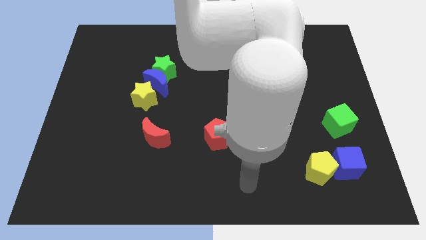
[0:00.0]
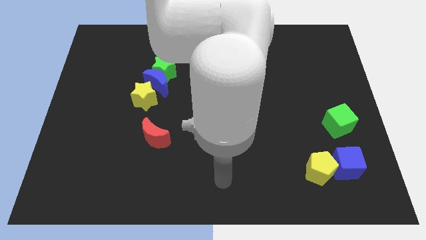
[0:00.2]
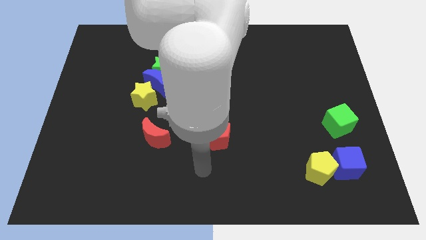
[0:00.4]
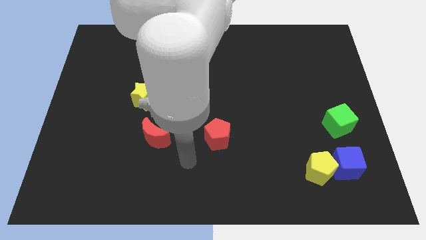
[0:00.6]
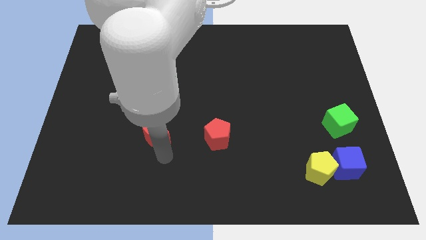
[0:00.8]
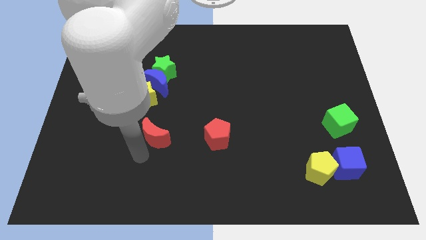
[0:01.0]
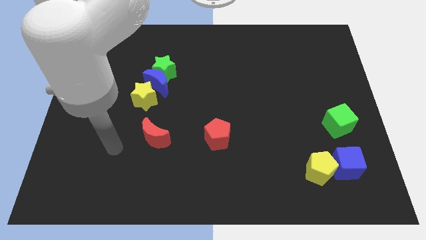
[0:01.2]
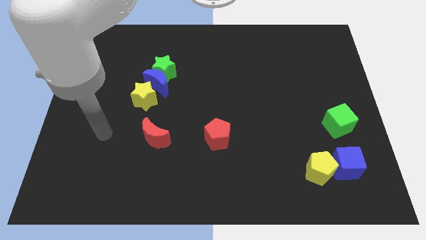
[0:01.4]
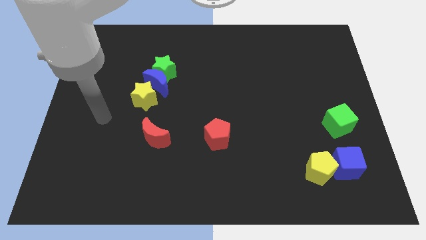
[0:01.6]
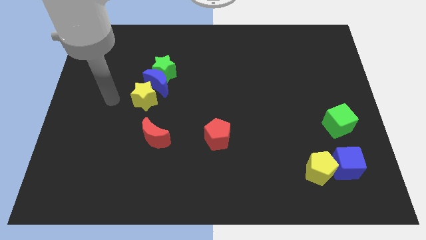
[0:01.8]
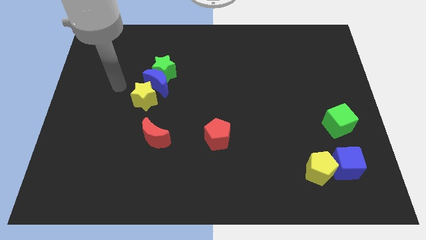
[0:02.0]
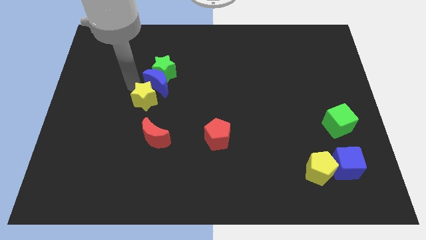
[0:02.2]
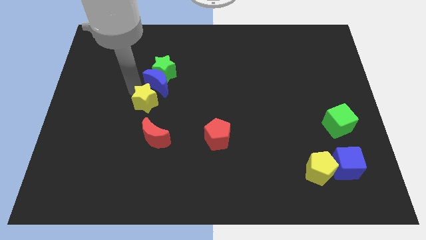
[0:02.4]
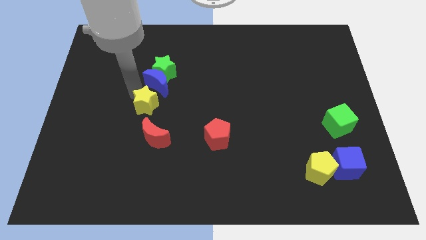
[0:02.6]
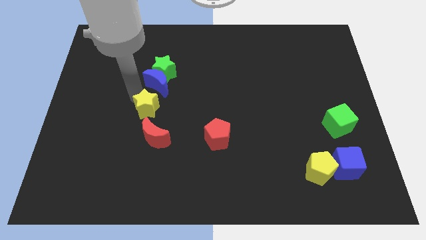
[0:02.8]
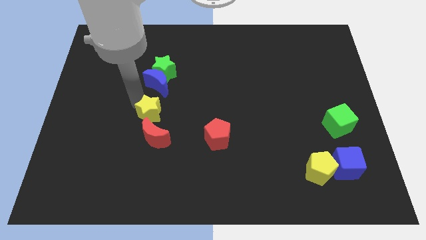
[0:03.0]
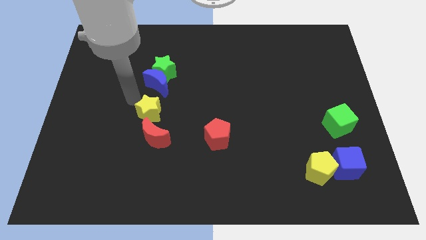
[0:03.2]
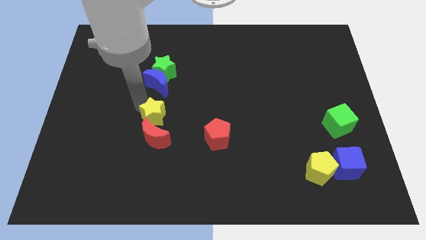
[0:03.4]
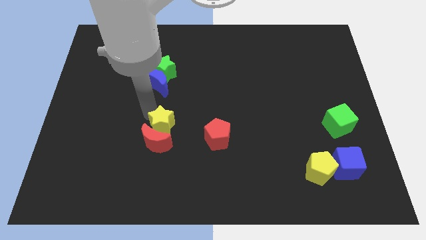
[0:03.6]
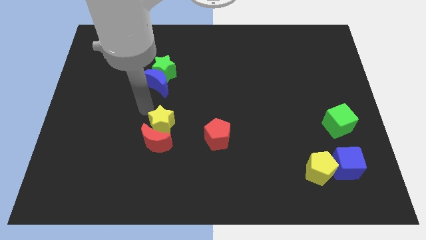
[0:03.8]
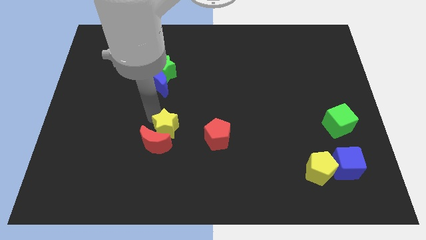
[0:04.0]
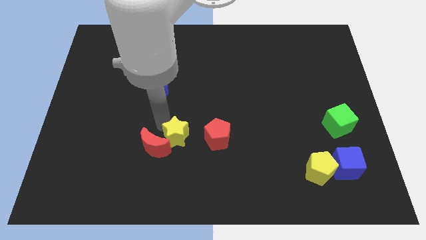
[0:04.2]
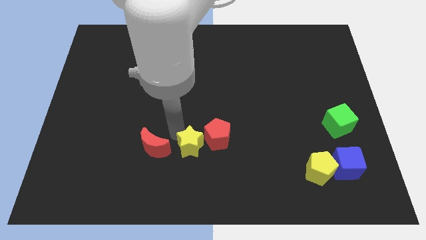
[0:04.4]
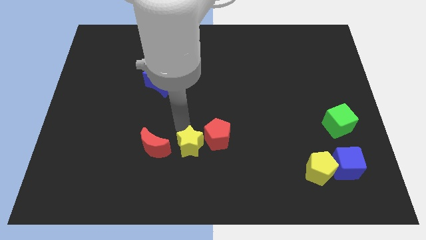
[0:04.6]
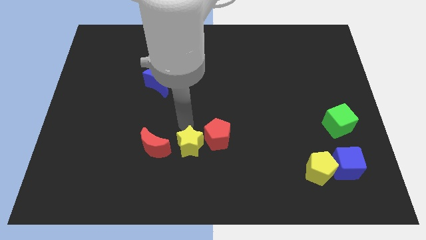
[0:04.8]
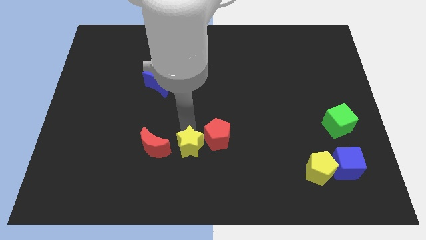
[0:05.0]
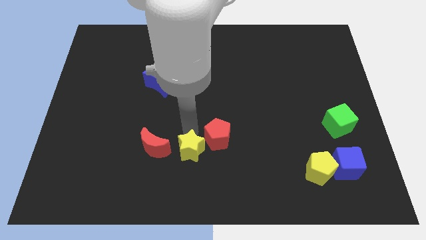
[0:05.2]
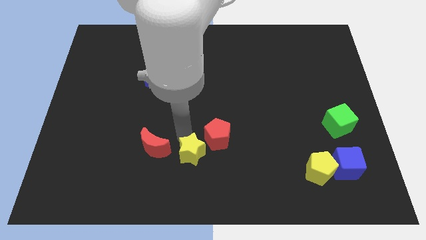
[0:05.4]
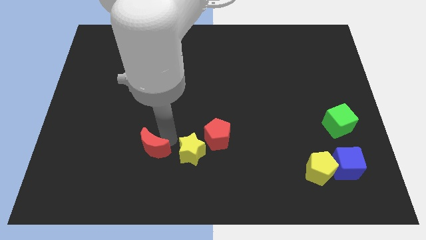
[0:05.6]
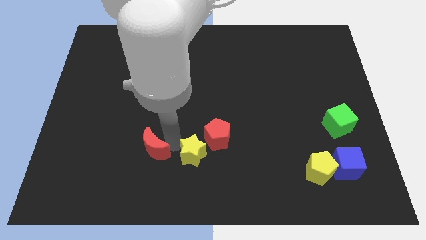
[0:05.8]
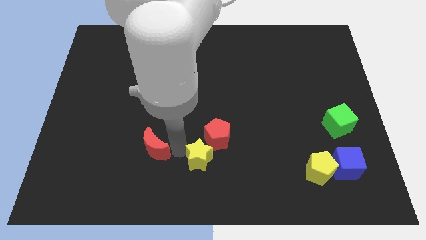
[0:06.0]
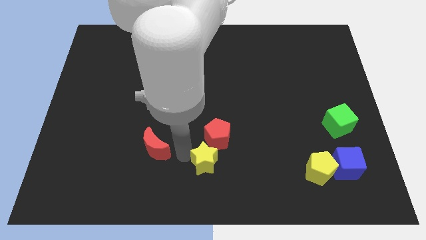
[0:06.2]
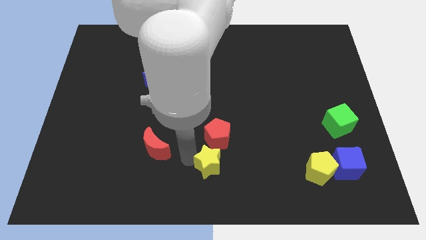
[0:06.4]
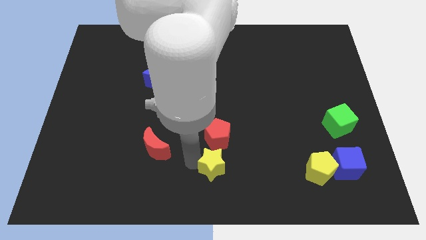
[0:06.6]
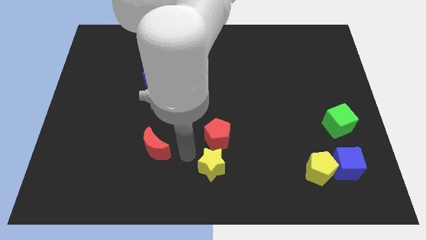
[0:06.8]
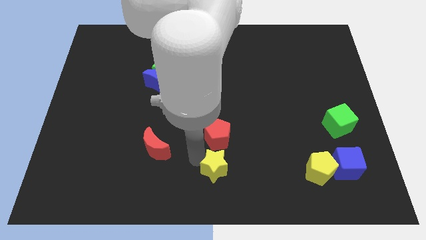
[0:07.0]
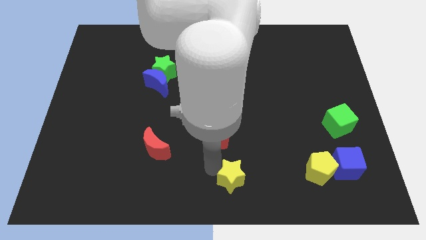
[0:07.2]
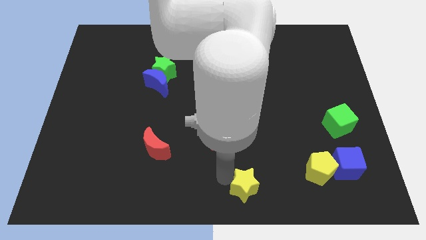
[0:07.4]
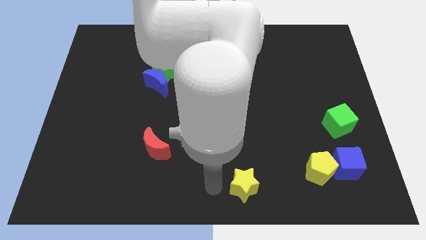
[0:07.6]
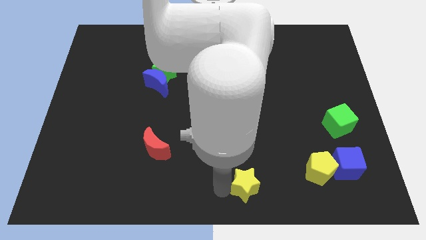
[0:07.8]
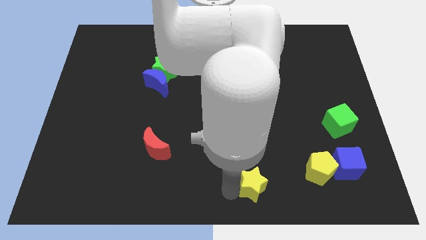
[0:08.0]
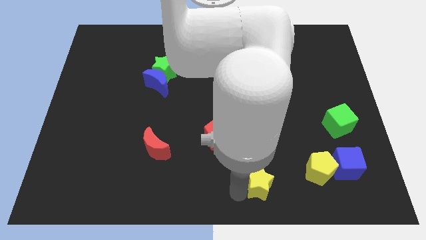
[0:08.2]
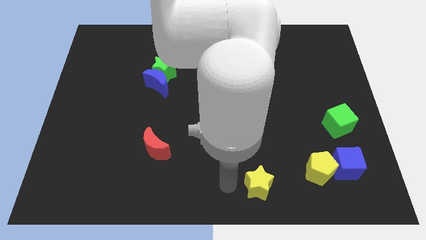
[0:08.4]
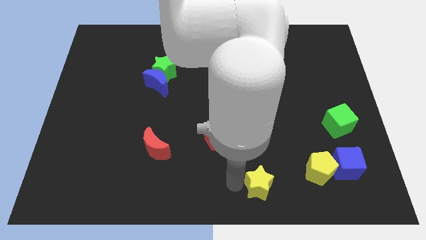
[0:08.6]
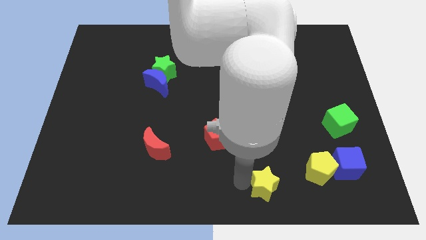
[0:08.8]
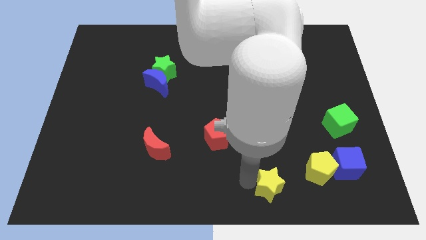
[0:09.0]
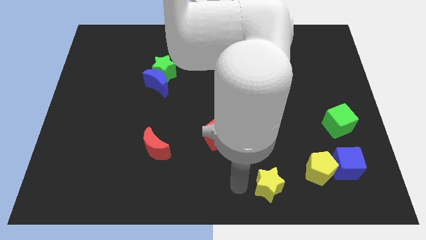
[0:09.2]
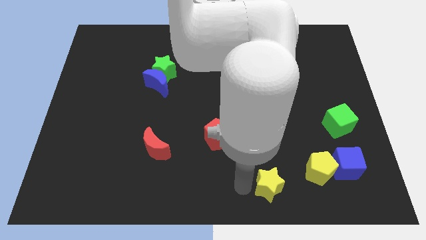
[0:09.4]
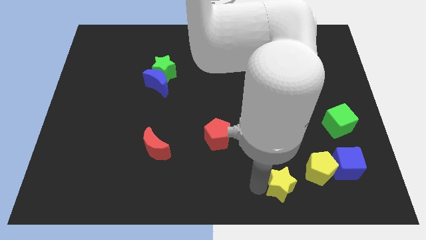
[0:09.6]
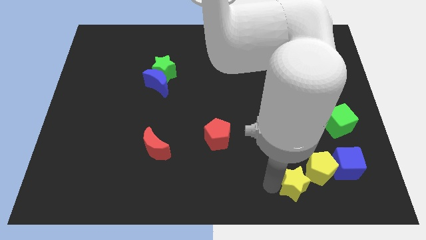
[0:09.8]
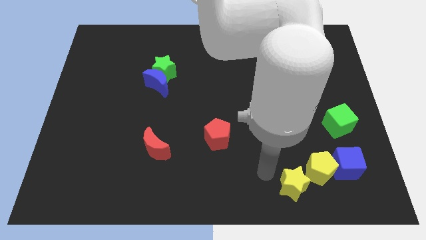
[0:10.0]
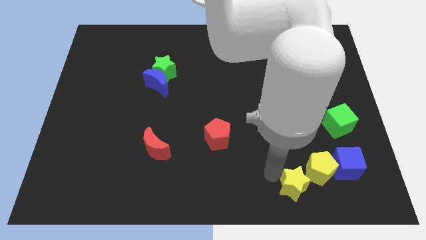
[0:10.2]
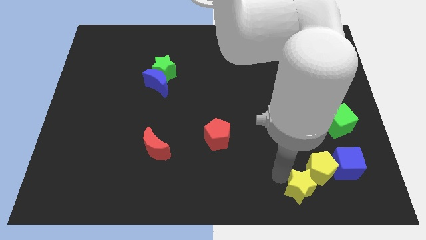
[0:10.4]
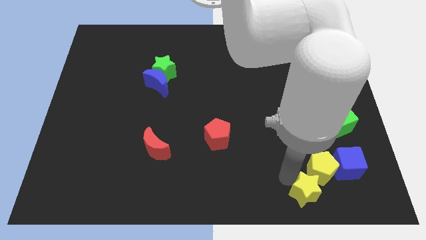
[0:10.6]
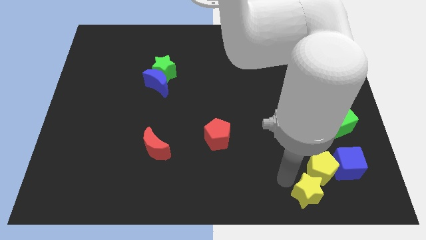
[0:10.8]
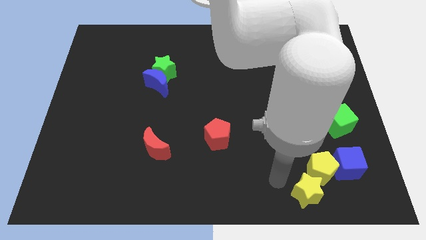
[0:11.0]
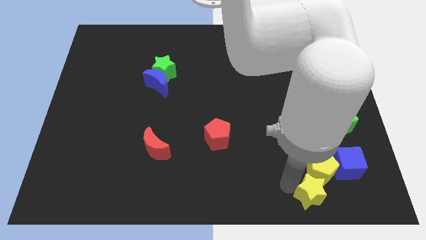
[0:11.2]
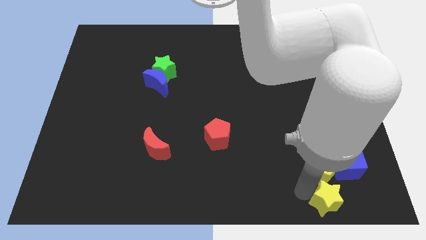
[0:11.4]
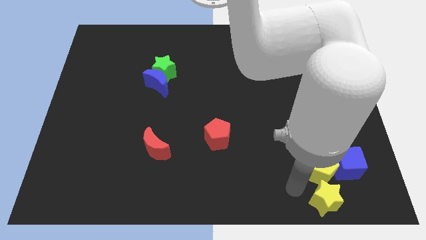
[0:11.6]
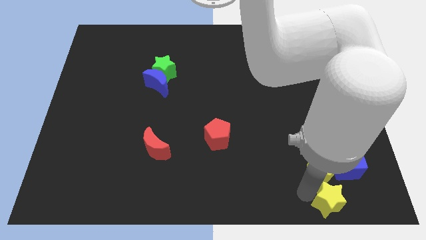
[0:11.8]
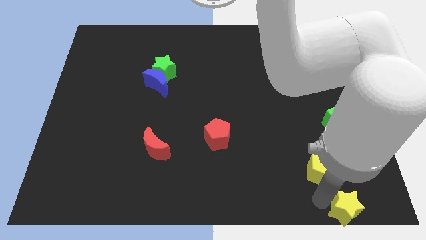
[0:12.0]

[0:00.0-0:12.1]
move the yellow star to the lower right corner
